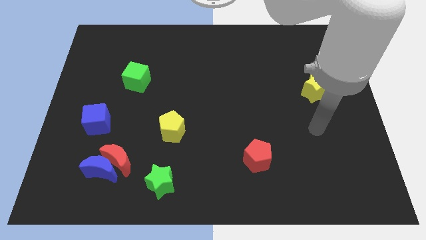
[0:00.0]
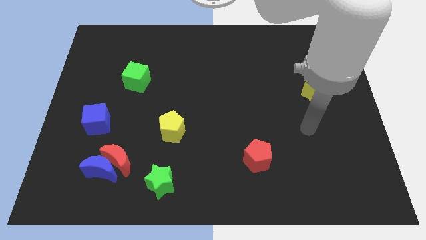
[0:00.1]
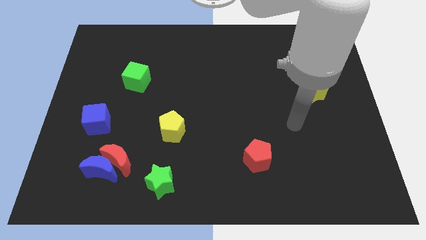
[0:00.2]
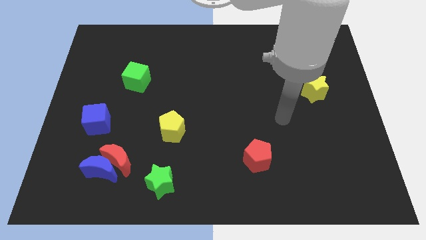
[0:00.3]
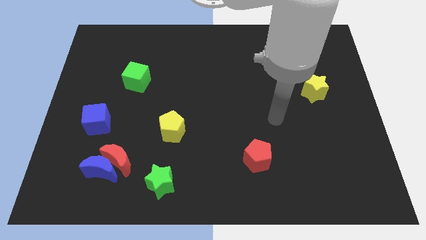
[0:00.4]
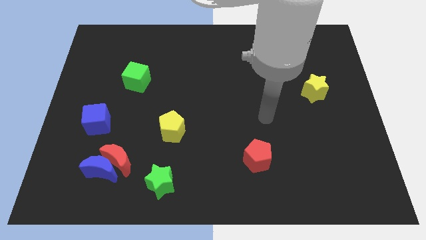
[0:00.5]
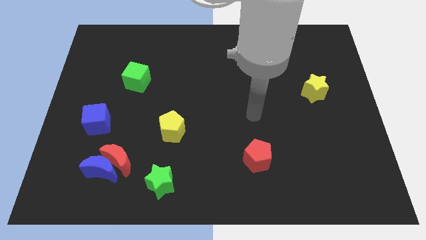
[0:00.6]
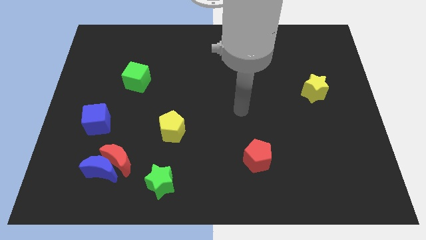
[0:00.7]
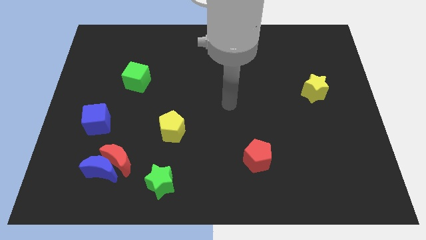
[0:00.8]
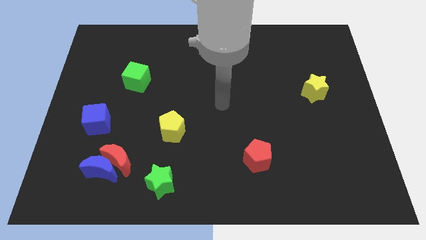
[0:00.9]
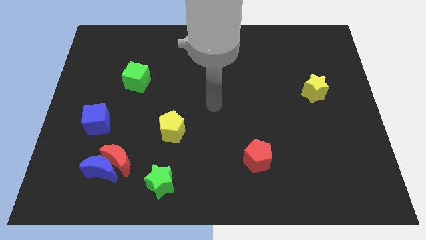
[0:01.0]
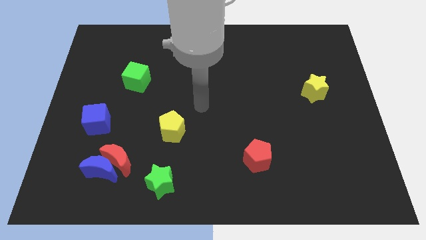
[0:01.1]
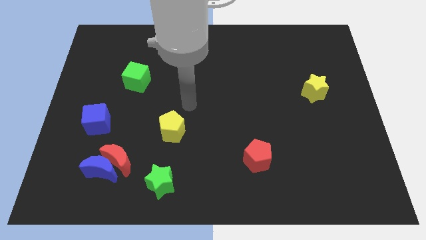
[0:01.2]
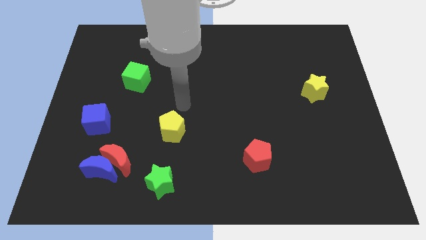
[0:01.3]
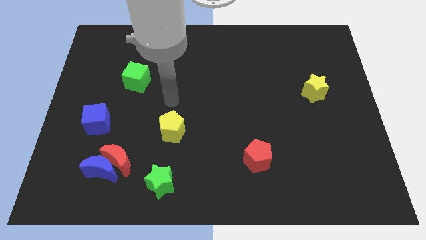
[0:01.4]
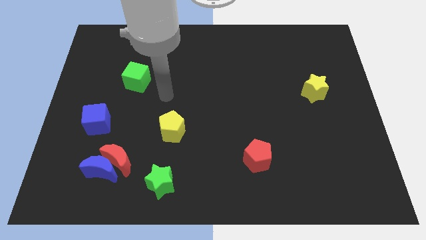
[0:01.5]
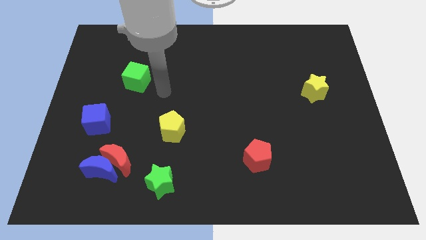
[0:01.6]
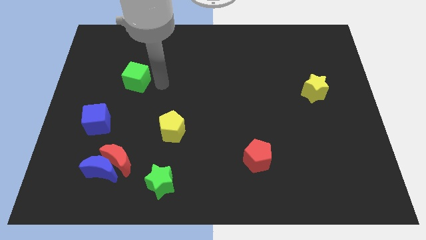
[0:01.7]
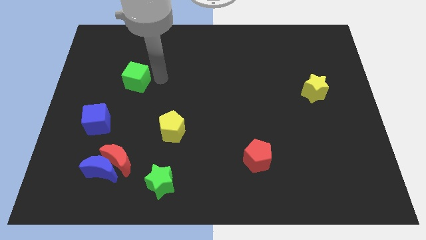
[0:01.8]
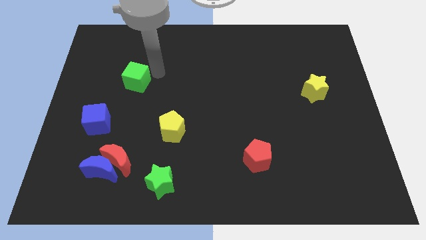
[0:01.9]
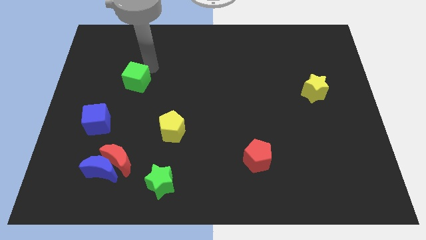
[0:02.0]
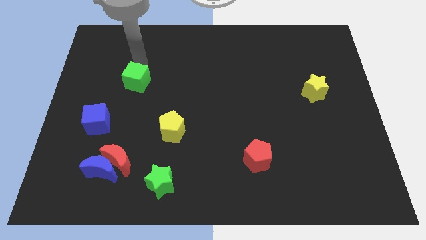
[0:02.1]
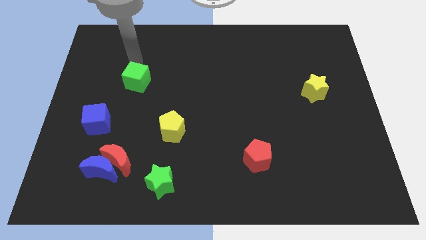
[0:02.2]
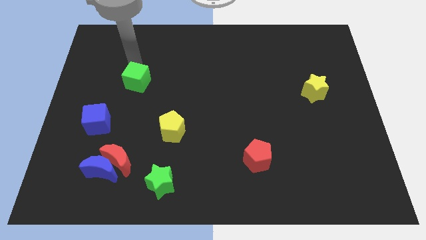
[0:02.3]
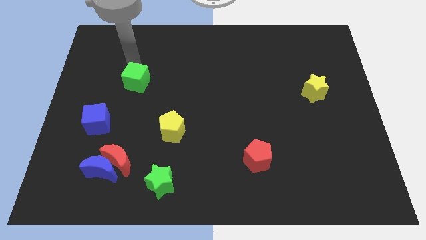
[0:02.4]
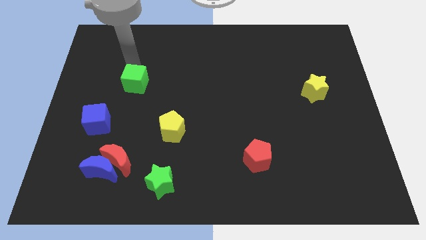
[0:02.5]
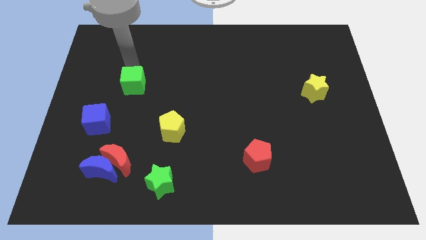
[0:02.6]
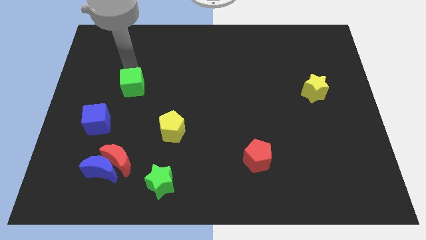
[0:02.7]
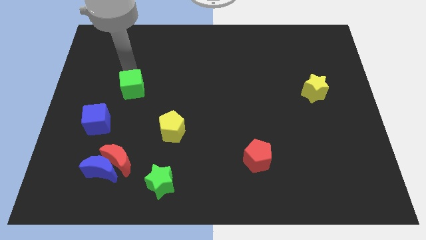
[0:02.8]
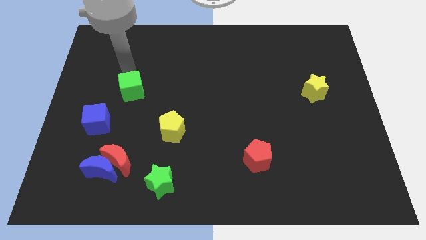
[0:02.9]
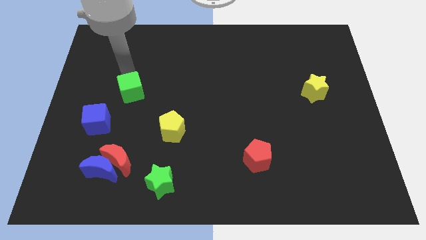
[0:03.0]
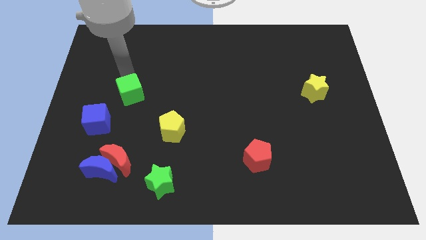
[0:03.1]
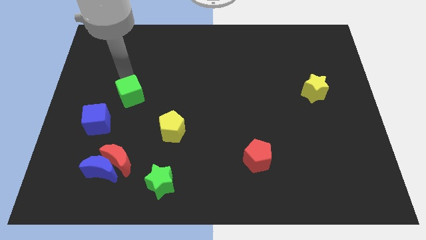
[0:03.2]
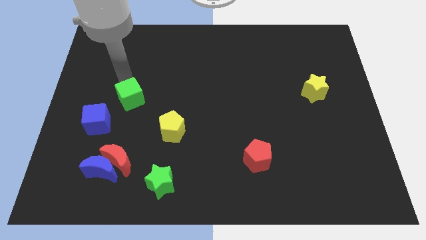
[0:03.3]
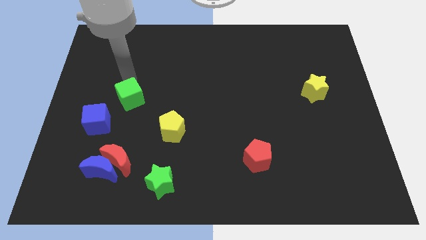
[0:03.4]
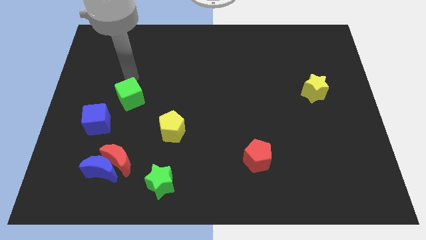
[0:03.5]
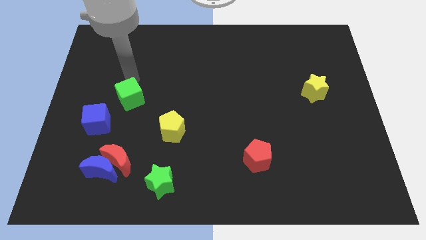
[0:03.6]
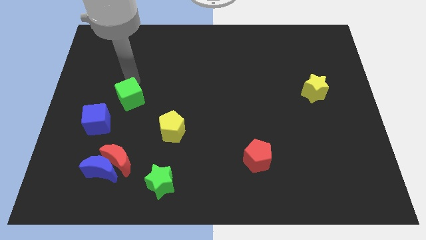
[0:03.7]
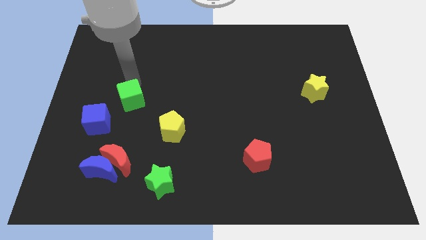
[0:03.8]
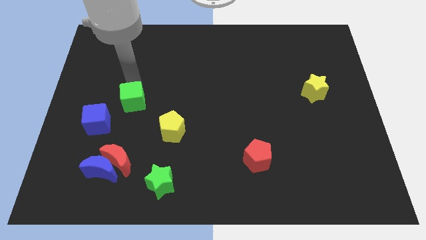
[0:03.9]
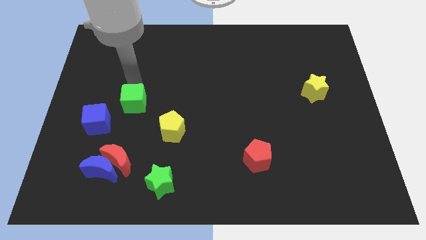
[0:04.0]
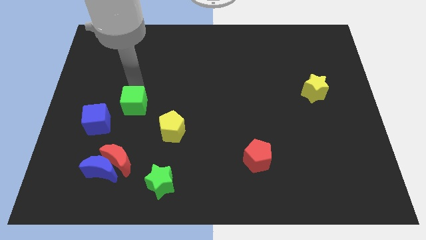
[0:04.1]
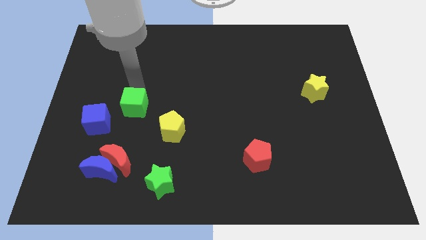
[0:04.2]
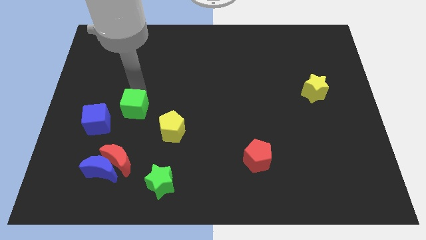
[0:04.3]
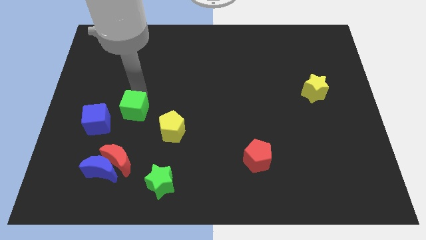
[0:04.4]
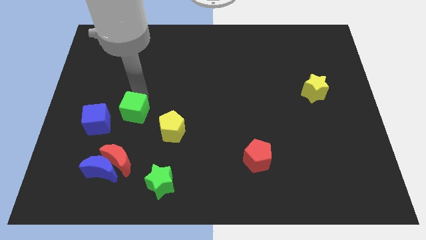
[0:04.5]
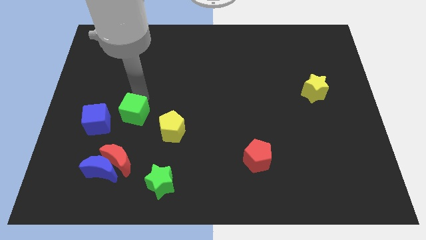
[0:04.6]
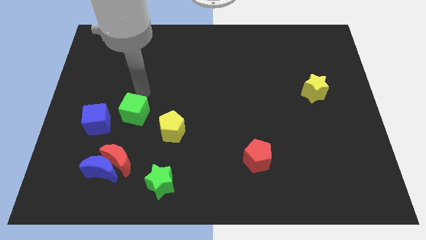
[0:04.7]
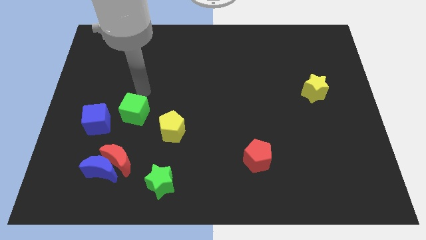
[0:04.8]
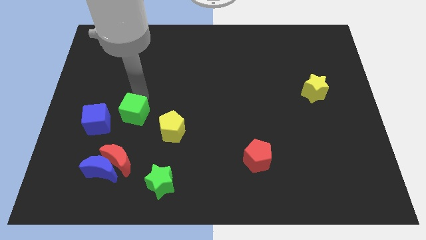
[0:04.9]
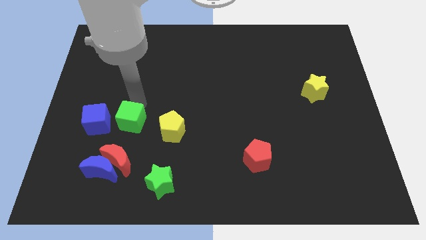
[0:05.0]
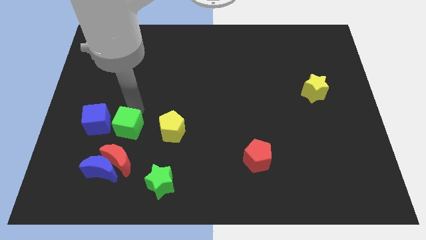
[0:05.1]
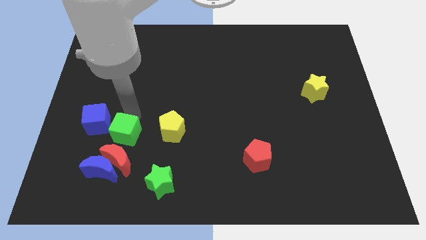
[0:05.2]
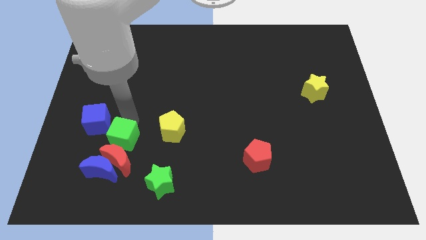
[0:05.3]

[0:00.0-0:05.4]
move the green cube next to the red moon

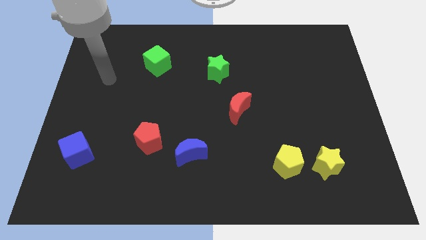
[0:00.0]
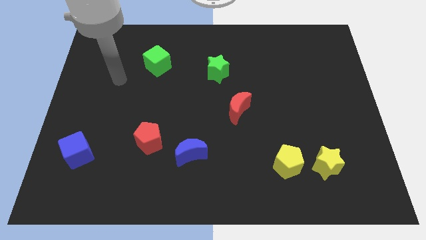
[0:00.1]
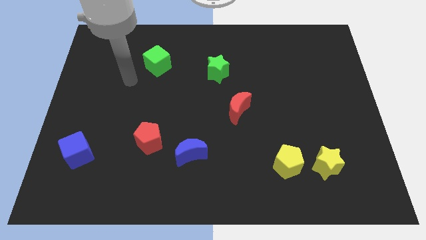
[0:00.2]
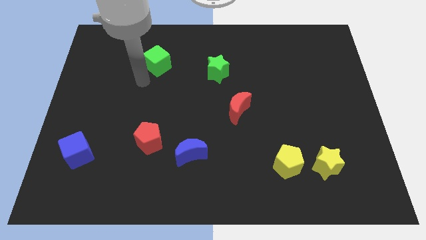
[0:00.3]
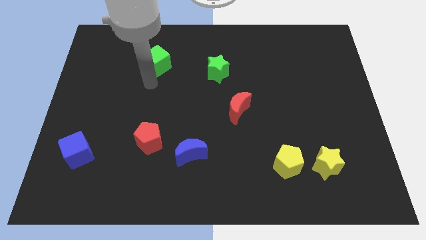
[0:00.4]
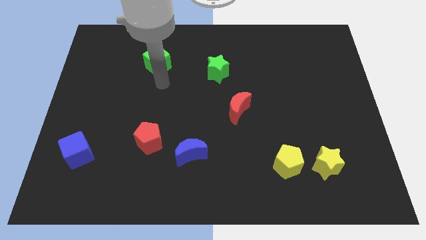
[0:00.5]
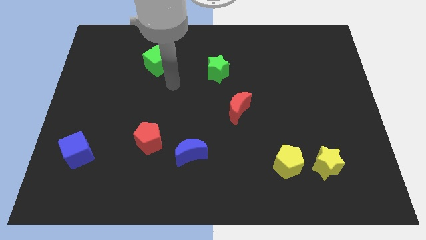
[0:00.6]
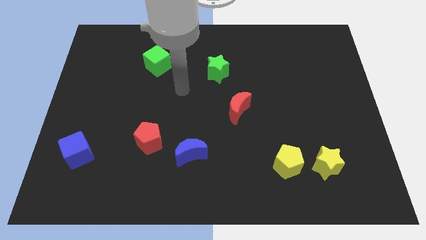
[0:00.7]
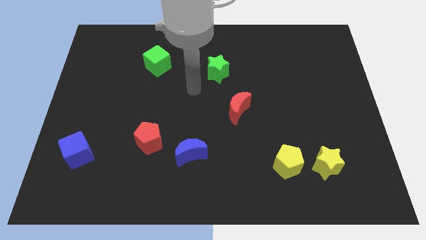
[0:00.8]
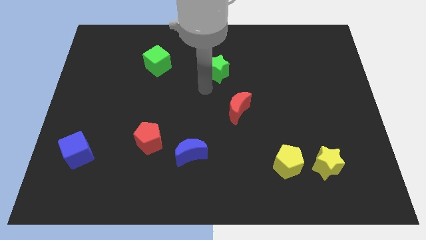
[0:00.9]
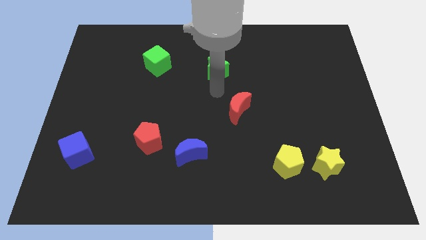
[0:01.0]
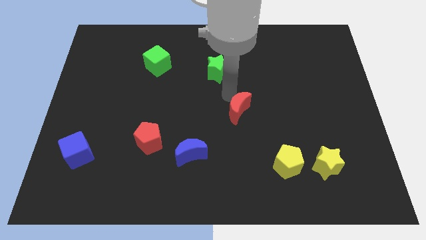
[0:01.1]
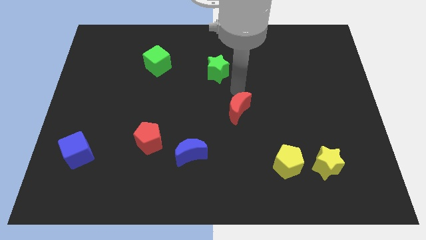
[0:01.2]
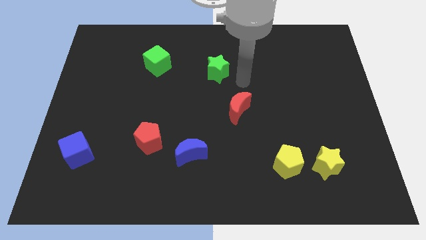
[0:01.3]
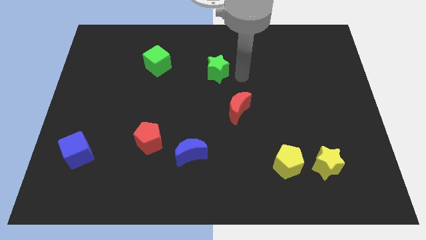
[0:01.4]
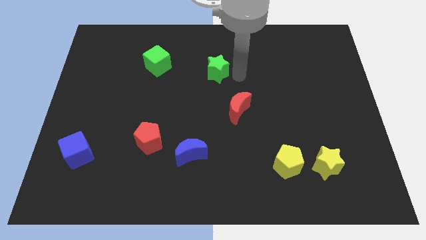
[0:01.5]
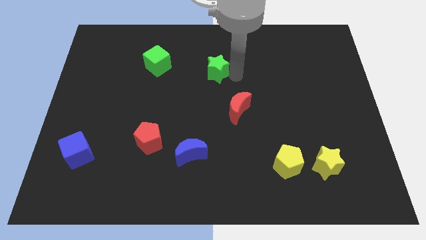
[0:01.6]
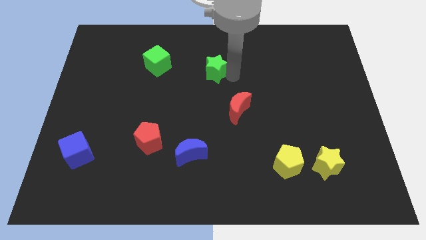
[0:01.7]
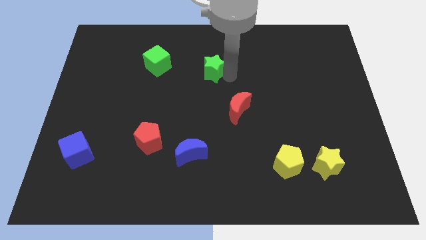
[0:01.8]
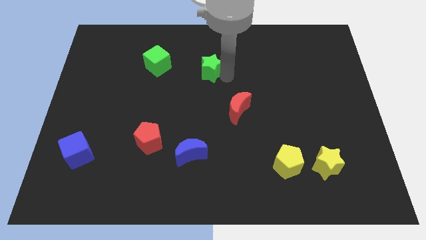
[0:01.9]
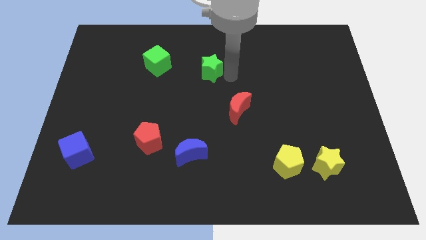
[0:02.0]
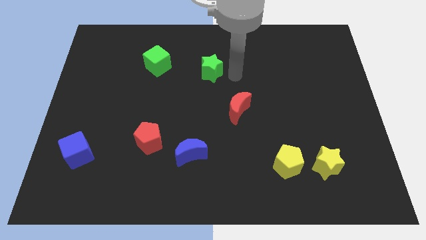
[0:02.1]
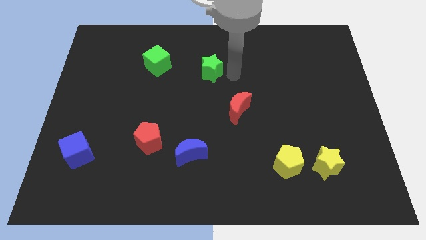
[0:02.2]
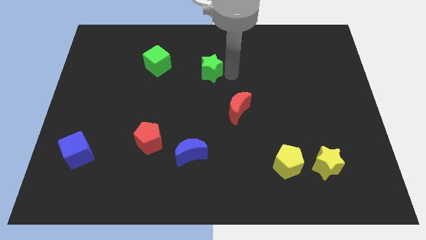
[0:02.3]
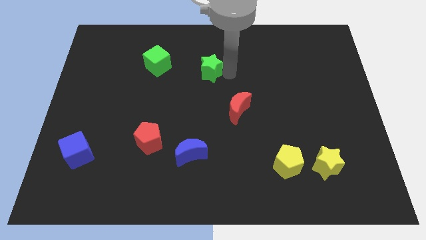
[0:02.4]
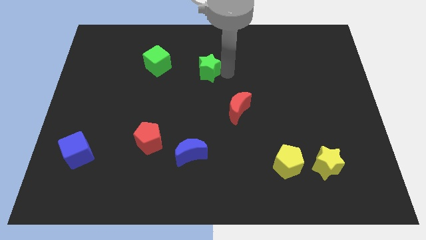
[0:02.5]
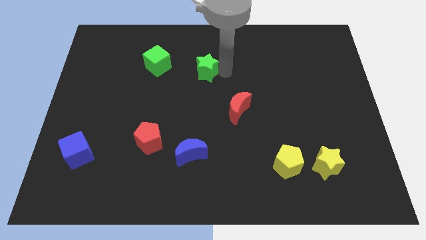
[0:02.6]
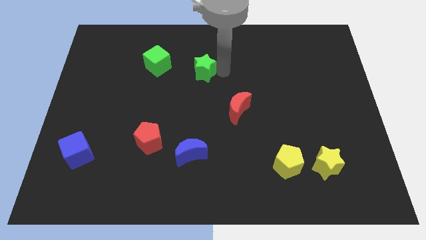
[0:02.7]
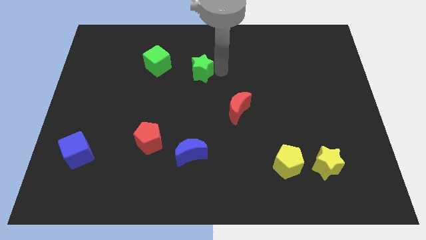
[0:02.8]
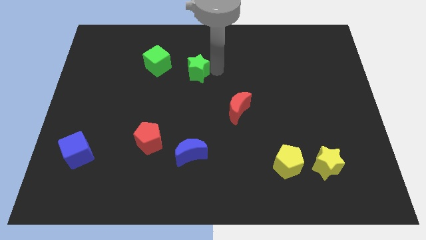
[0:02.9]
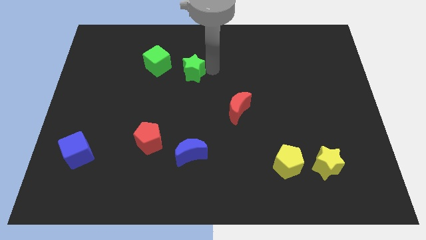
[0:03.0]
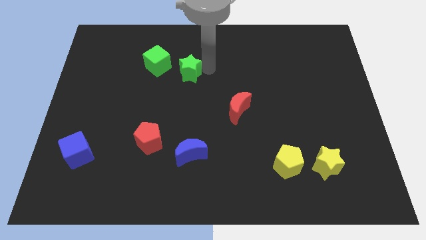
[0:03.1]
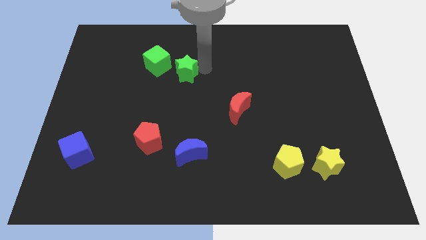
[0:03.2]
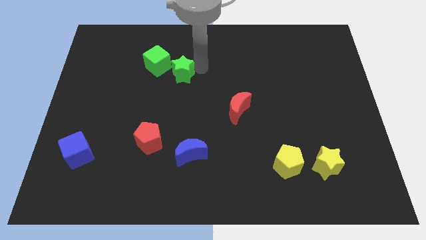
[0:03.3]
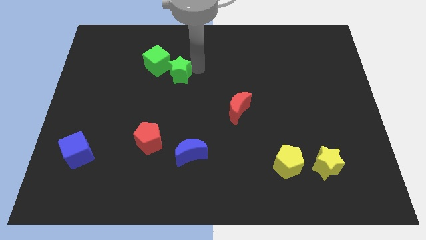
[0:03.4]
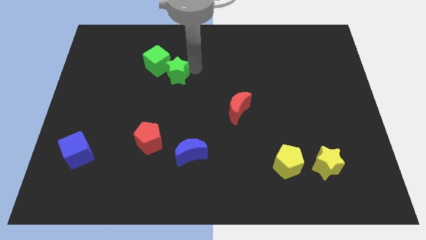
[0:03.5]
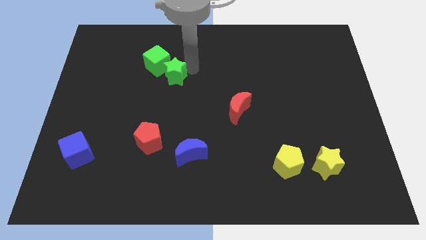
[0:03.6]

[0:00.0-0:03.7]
slide the green star towards the green cube
